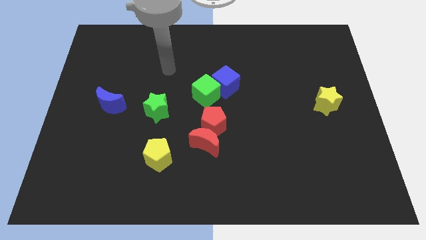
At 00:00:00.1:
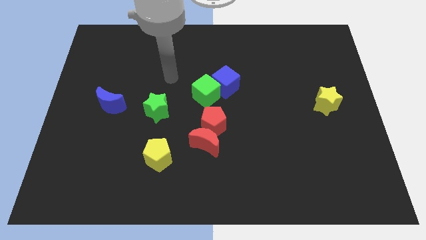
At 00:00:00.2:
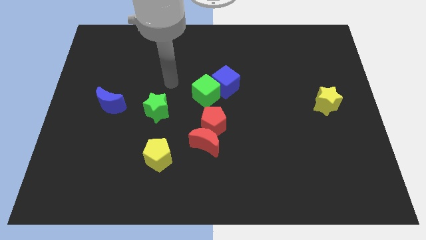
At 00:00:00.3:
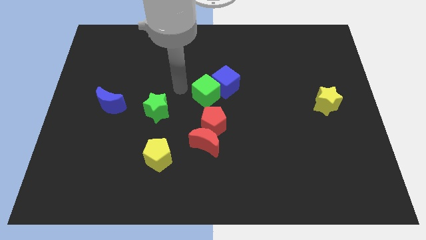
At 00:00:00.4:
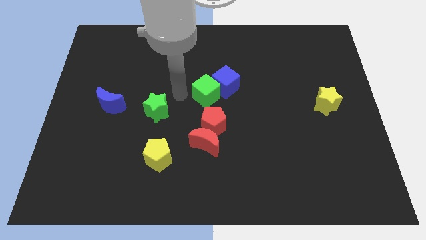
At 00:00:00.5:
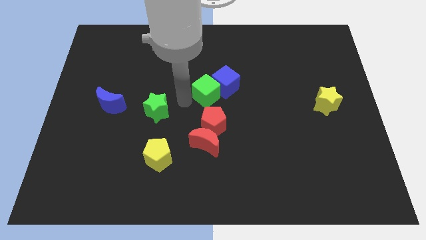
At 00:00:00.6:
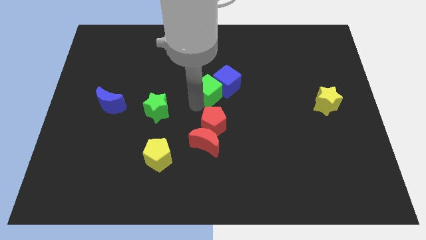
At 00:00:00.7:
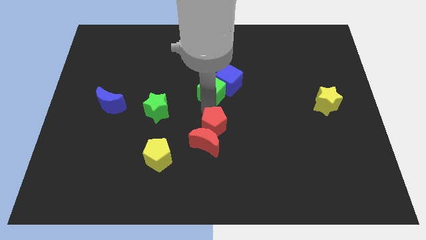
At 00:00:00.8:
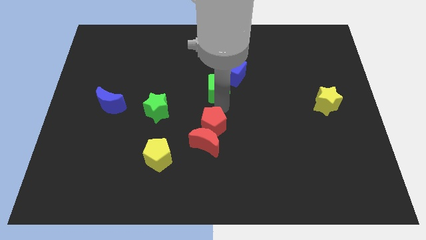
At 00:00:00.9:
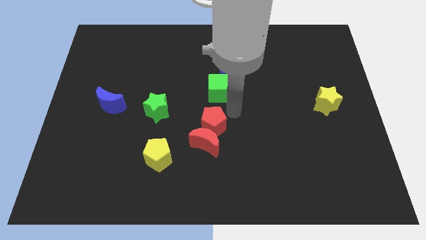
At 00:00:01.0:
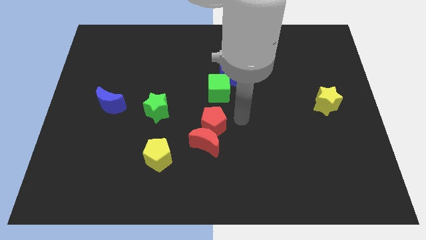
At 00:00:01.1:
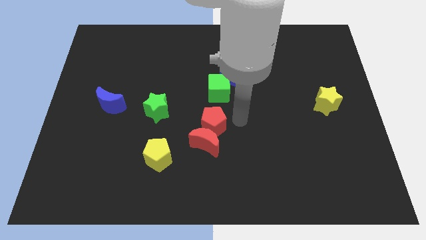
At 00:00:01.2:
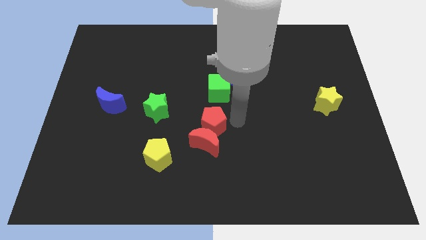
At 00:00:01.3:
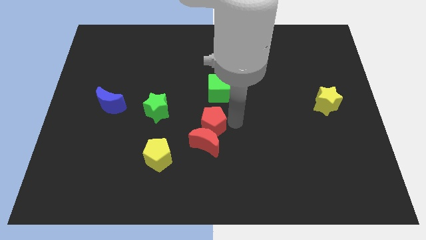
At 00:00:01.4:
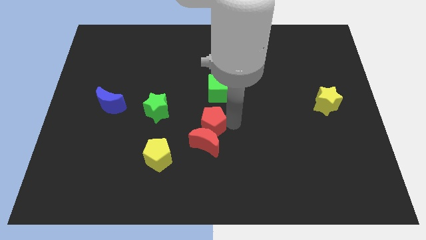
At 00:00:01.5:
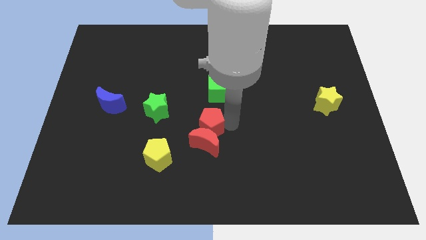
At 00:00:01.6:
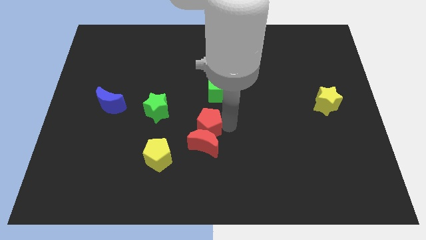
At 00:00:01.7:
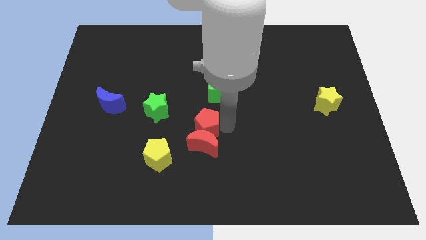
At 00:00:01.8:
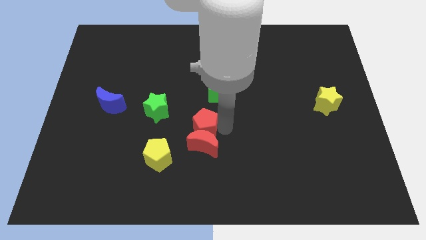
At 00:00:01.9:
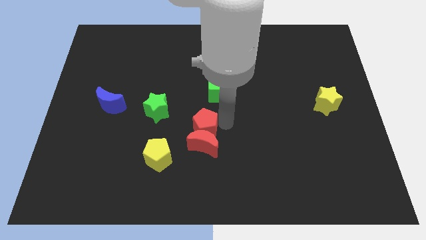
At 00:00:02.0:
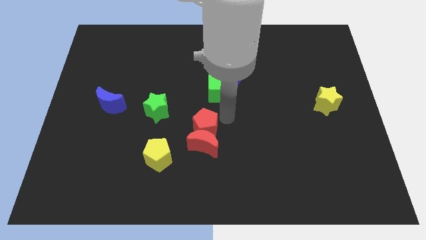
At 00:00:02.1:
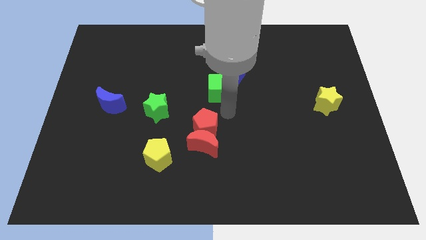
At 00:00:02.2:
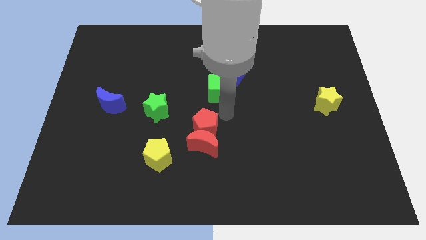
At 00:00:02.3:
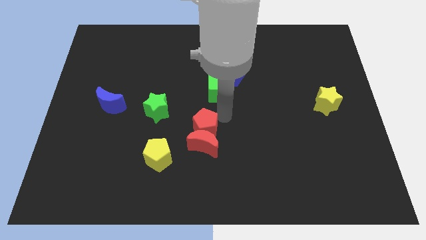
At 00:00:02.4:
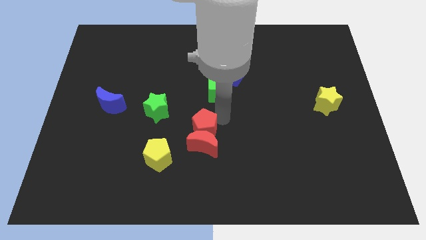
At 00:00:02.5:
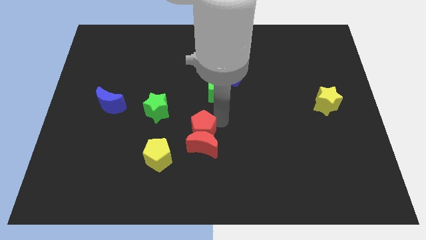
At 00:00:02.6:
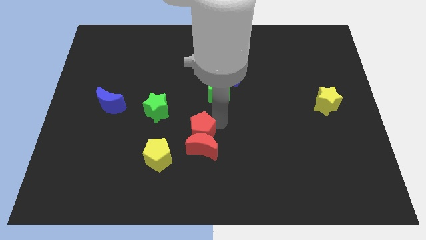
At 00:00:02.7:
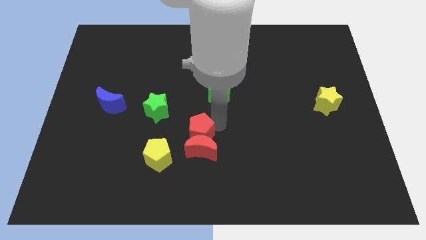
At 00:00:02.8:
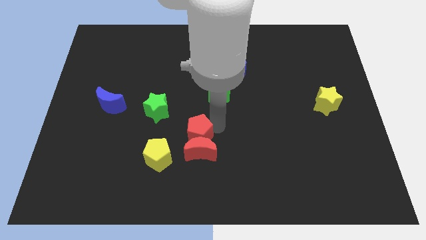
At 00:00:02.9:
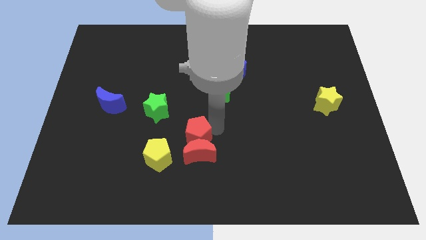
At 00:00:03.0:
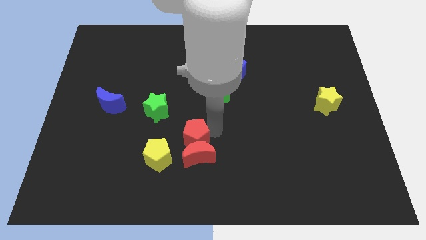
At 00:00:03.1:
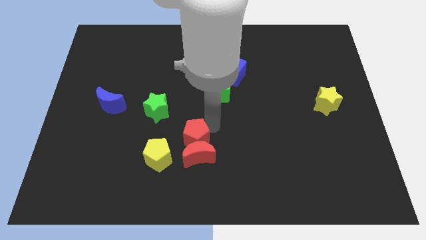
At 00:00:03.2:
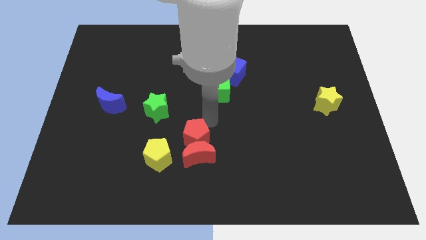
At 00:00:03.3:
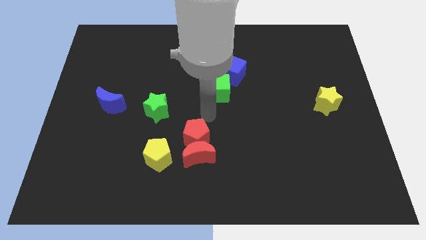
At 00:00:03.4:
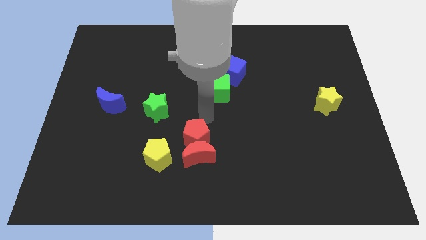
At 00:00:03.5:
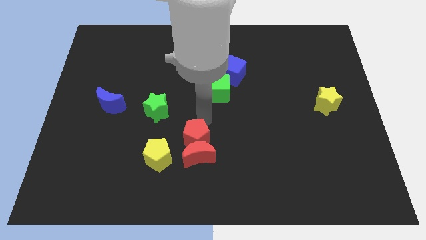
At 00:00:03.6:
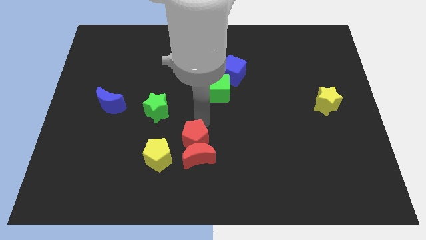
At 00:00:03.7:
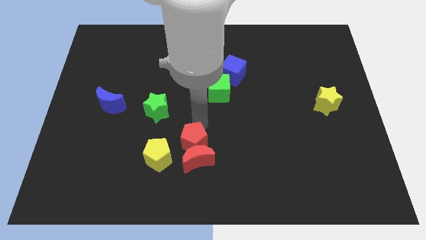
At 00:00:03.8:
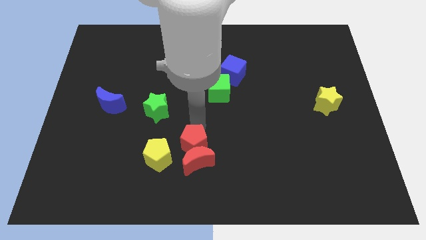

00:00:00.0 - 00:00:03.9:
slightly push the red pentagon downwards and then to the left

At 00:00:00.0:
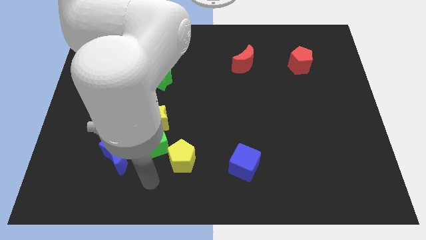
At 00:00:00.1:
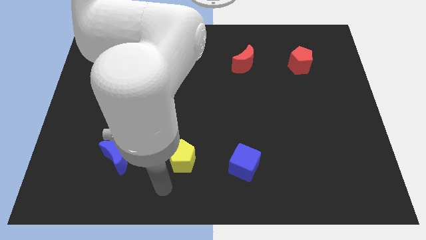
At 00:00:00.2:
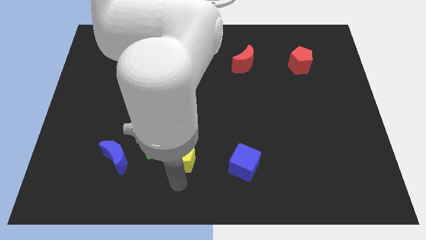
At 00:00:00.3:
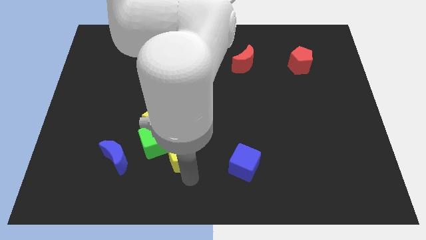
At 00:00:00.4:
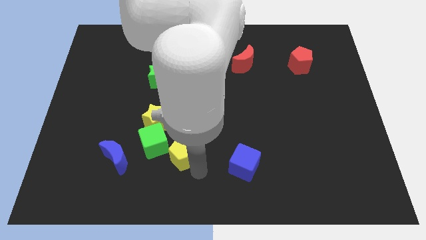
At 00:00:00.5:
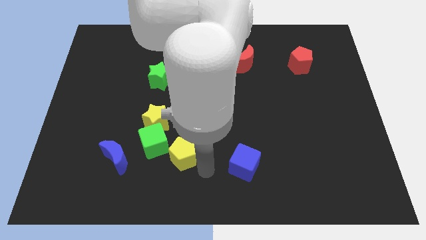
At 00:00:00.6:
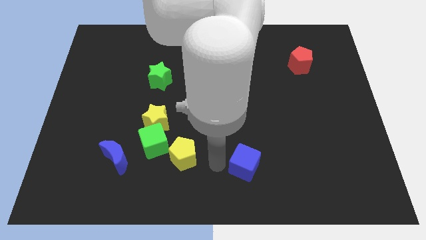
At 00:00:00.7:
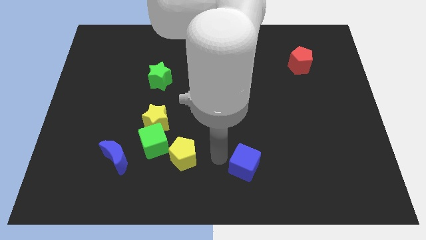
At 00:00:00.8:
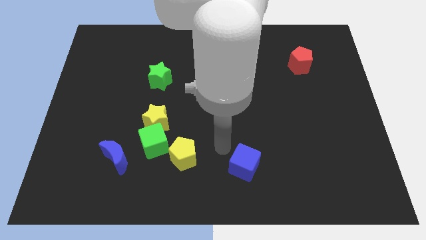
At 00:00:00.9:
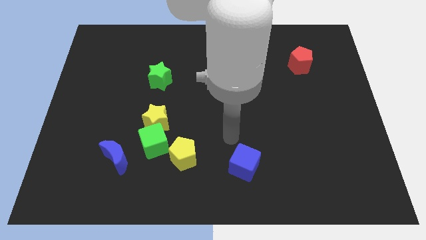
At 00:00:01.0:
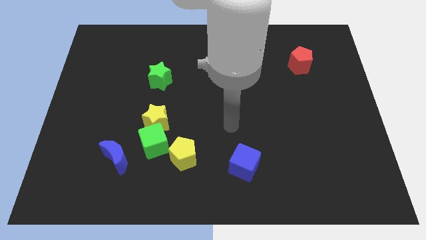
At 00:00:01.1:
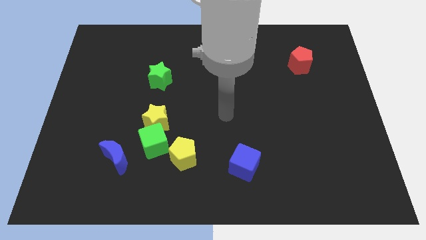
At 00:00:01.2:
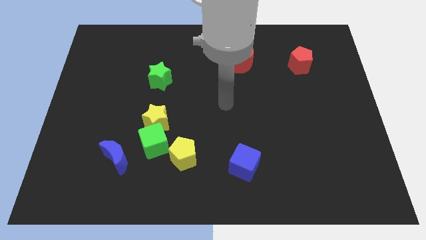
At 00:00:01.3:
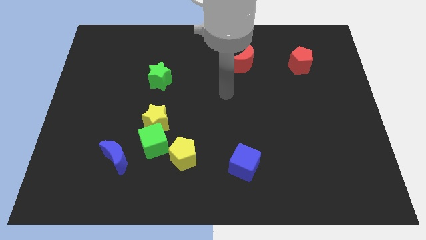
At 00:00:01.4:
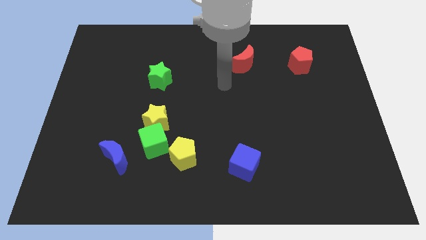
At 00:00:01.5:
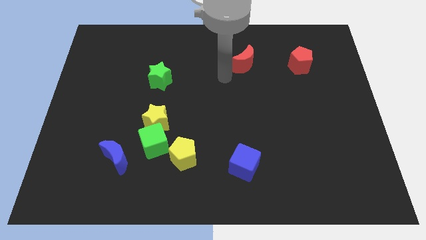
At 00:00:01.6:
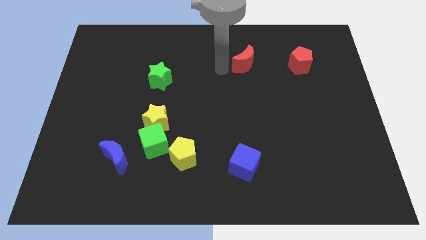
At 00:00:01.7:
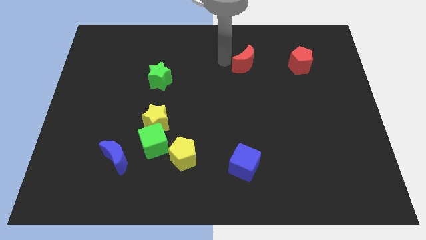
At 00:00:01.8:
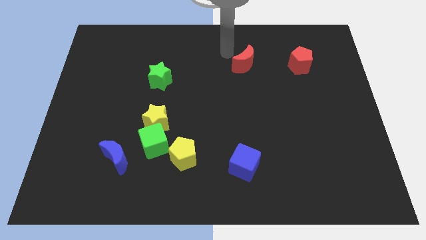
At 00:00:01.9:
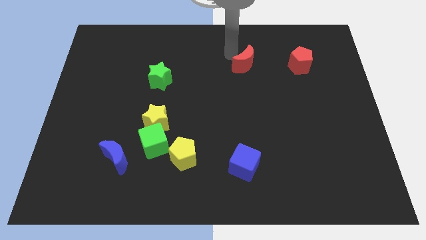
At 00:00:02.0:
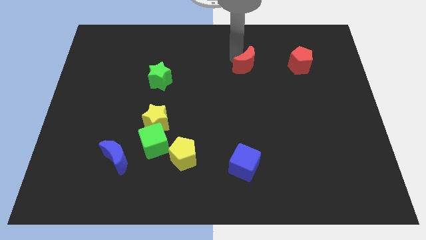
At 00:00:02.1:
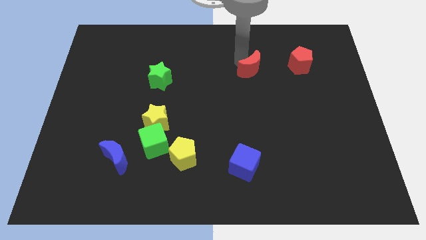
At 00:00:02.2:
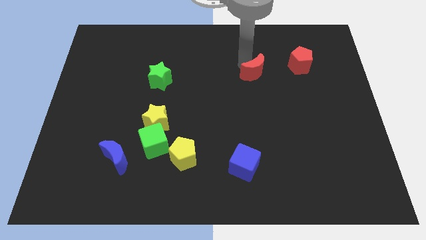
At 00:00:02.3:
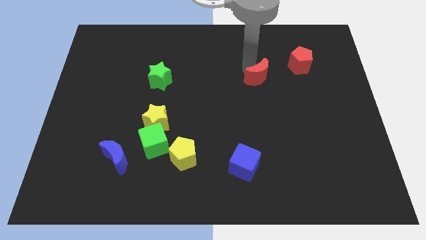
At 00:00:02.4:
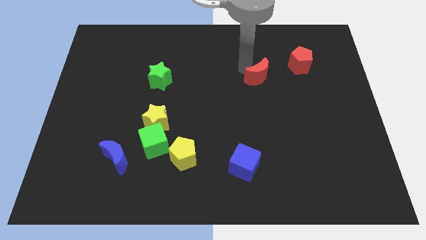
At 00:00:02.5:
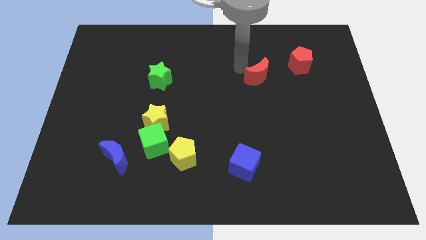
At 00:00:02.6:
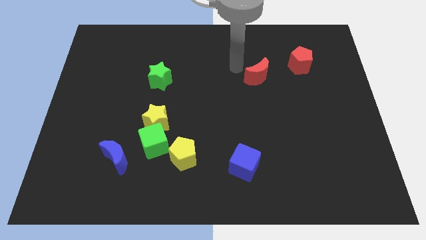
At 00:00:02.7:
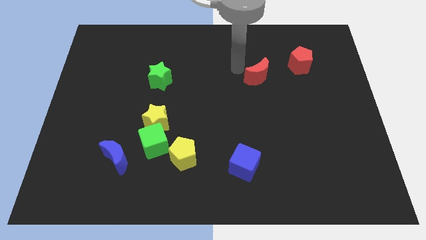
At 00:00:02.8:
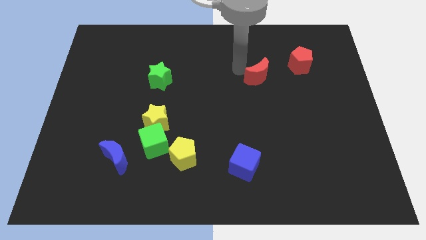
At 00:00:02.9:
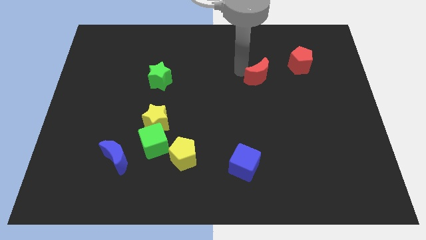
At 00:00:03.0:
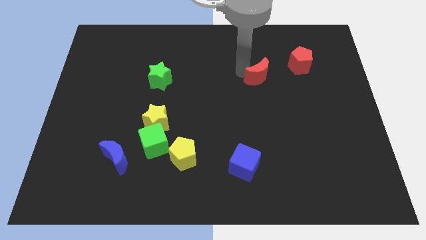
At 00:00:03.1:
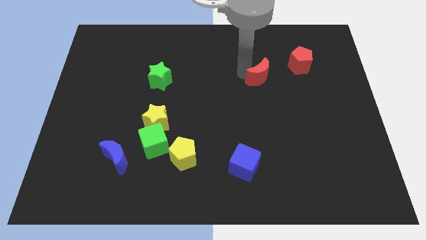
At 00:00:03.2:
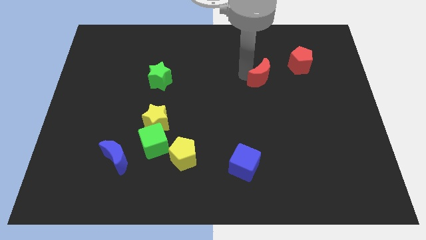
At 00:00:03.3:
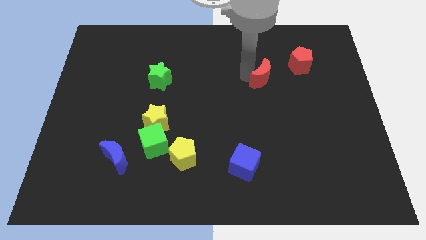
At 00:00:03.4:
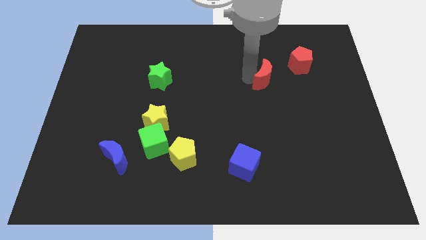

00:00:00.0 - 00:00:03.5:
slightly move the red moon downwards and then to the right

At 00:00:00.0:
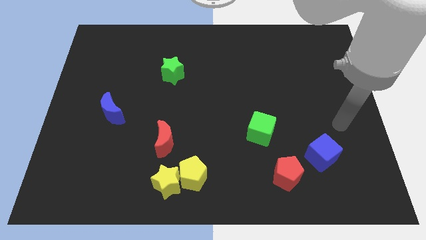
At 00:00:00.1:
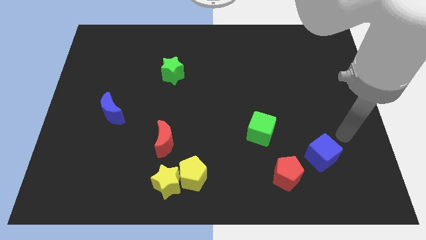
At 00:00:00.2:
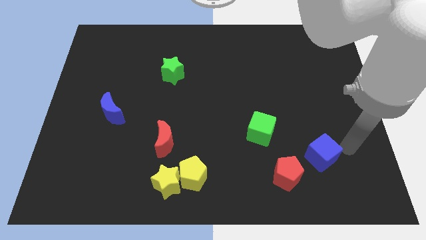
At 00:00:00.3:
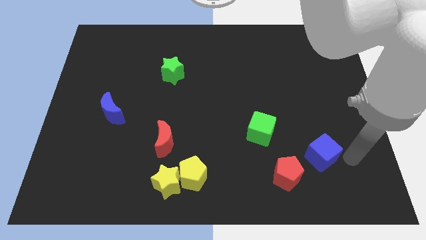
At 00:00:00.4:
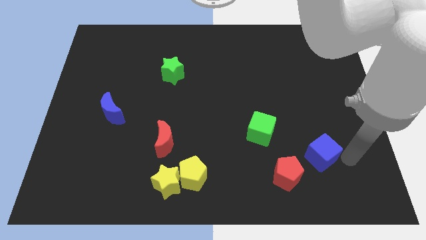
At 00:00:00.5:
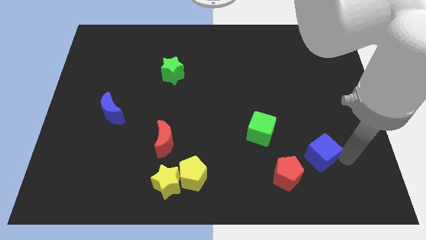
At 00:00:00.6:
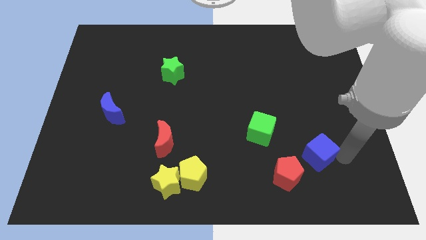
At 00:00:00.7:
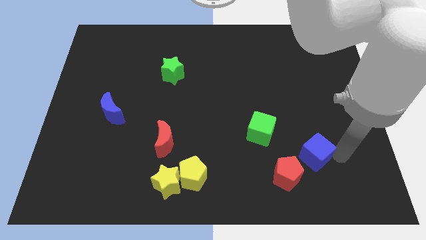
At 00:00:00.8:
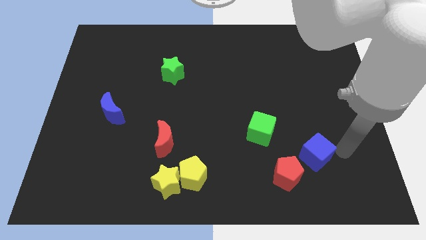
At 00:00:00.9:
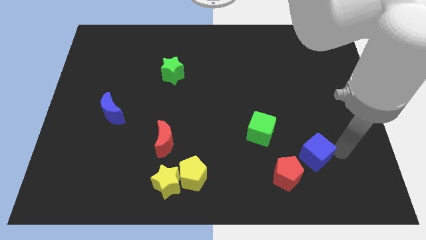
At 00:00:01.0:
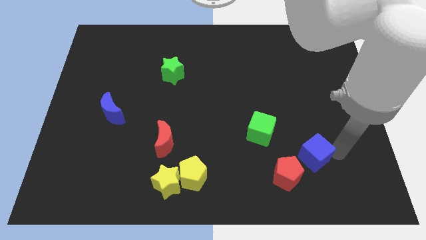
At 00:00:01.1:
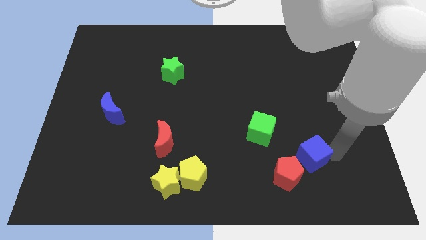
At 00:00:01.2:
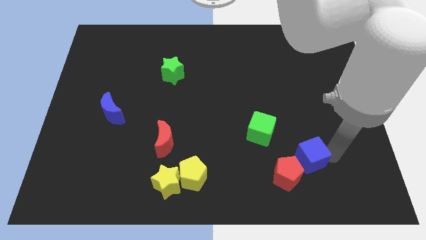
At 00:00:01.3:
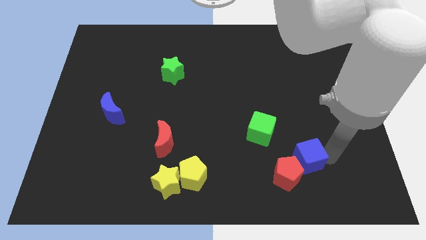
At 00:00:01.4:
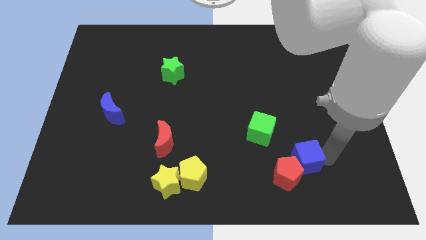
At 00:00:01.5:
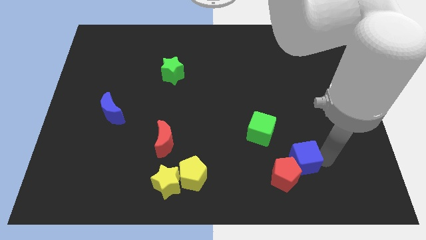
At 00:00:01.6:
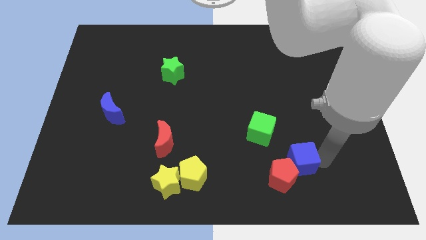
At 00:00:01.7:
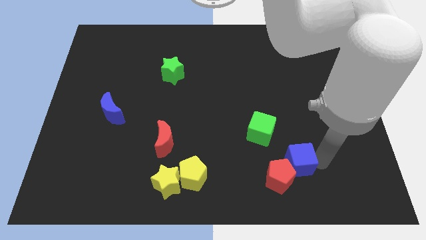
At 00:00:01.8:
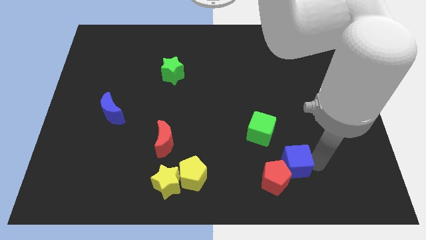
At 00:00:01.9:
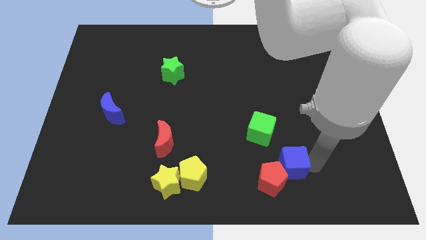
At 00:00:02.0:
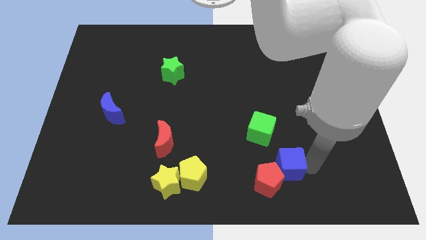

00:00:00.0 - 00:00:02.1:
move the blue cube a little to the left
